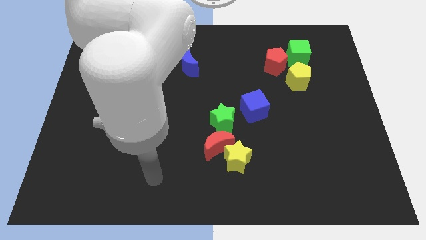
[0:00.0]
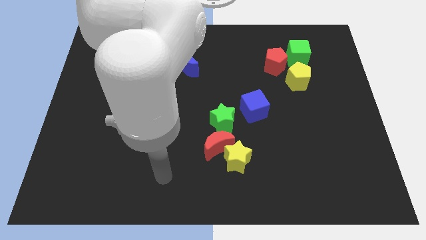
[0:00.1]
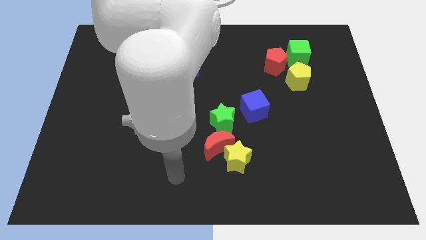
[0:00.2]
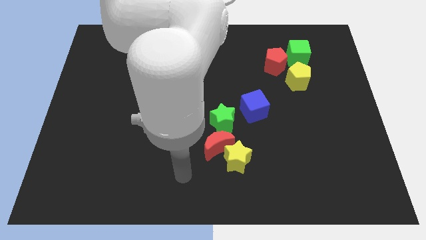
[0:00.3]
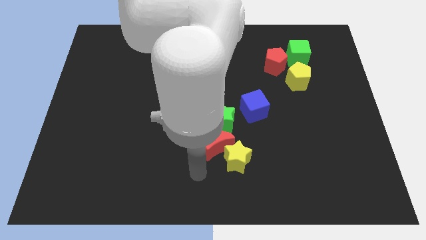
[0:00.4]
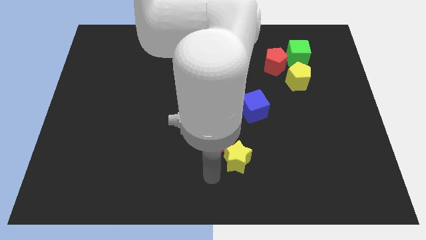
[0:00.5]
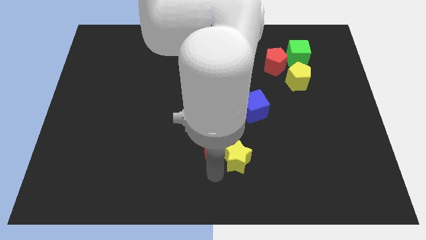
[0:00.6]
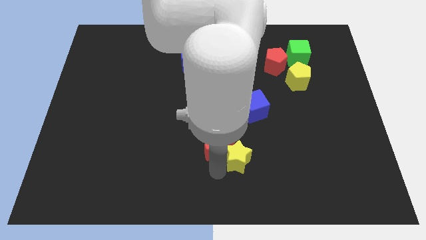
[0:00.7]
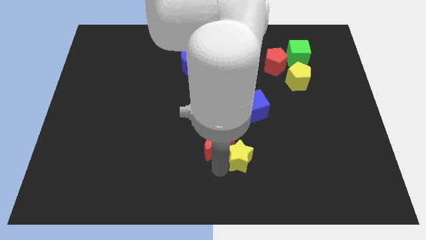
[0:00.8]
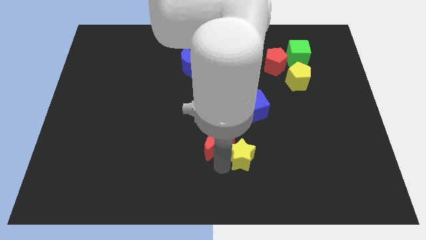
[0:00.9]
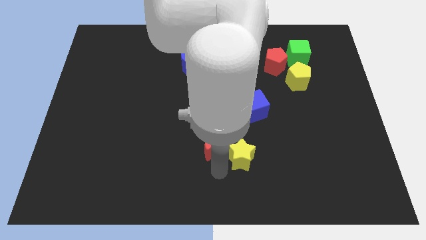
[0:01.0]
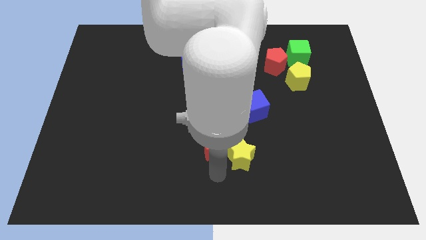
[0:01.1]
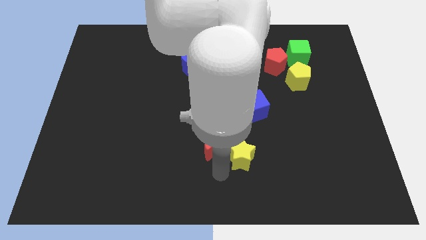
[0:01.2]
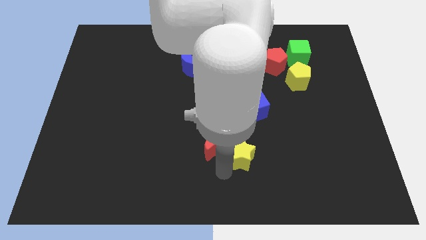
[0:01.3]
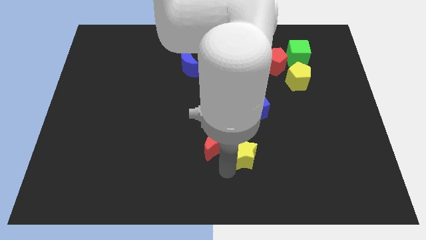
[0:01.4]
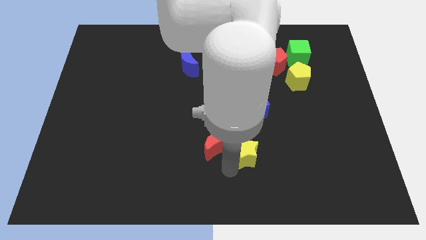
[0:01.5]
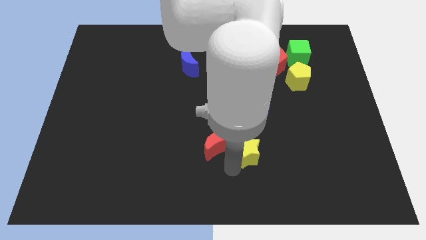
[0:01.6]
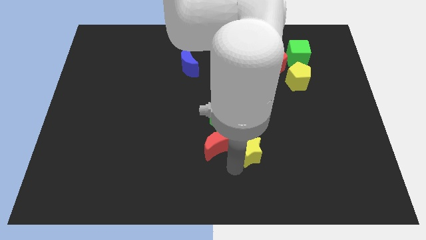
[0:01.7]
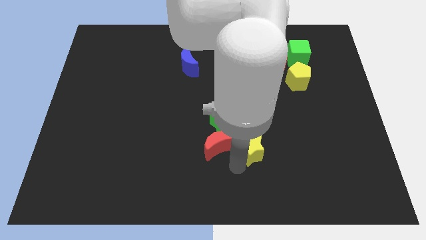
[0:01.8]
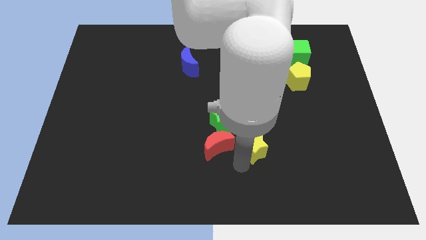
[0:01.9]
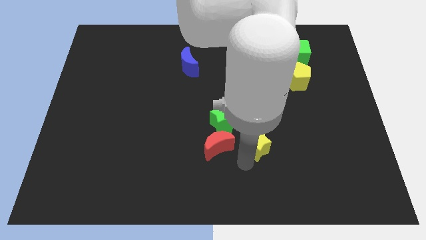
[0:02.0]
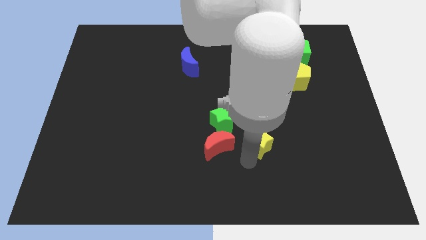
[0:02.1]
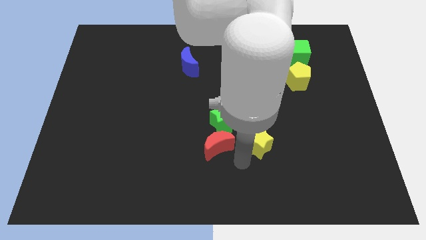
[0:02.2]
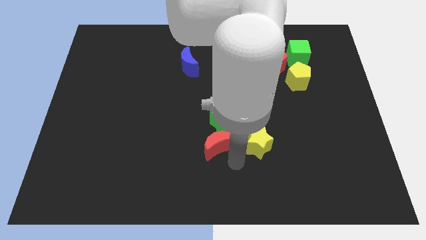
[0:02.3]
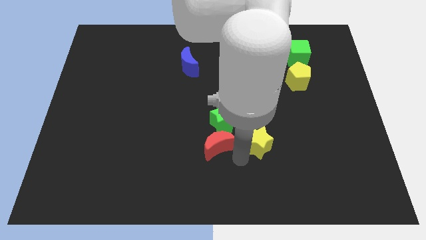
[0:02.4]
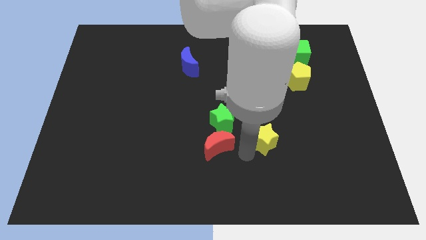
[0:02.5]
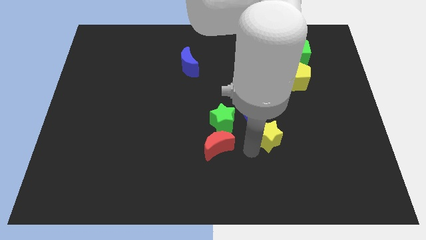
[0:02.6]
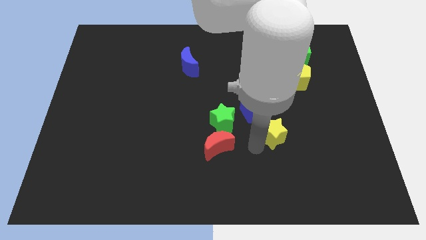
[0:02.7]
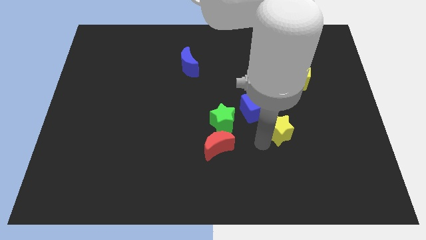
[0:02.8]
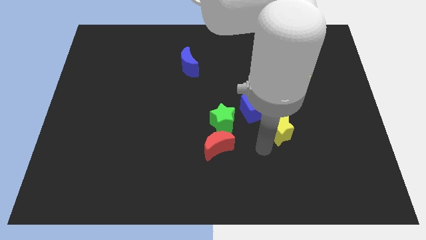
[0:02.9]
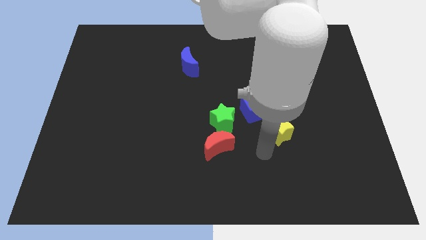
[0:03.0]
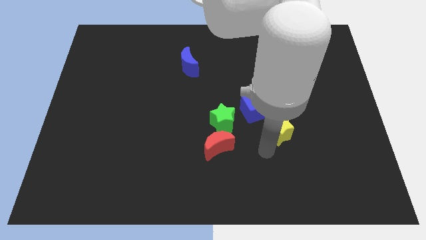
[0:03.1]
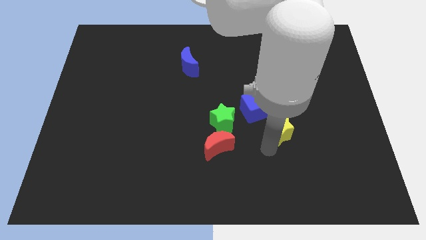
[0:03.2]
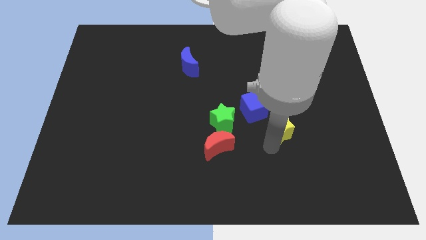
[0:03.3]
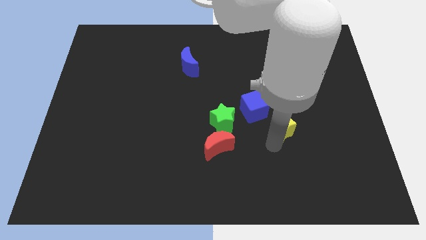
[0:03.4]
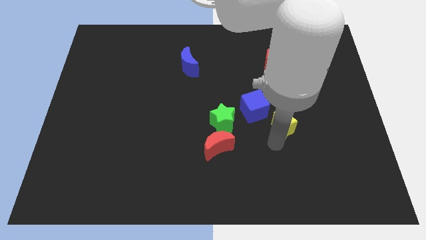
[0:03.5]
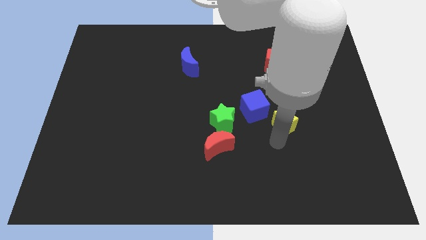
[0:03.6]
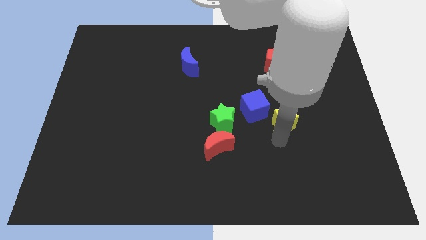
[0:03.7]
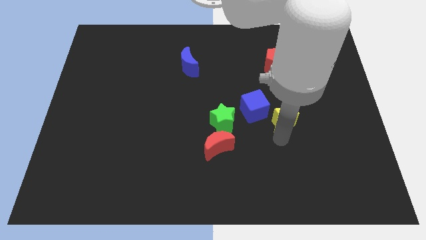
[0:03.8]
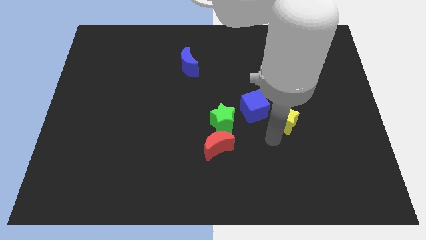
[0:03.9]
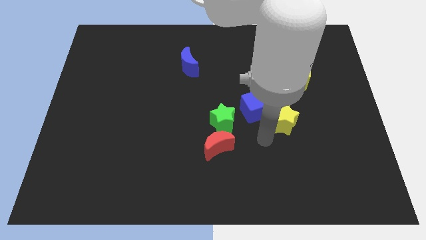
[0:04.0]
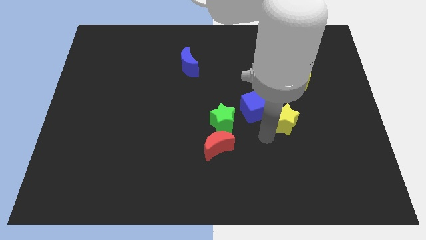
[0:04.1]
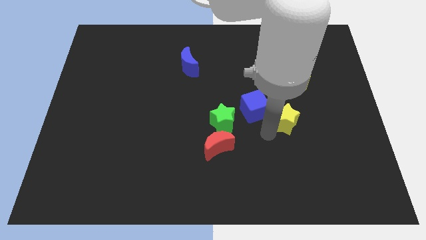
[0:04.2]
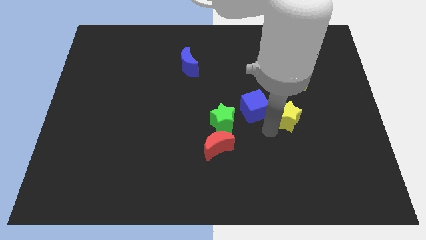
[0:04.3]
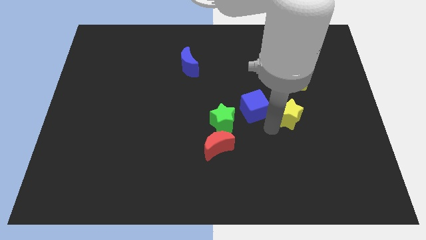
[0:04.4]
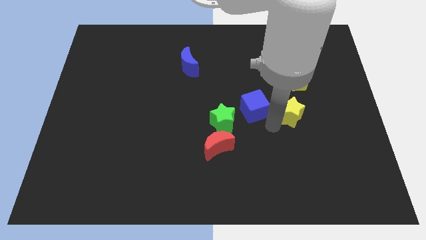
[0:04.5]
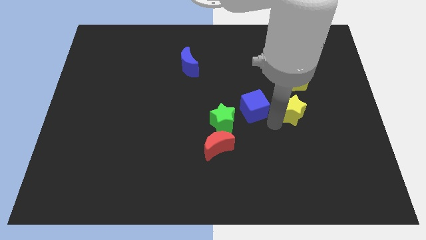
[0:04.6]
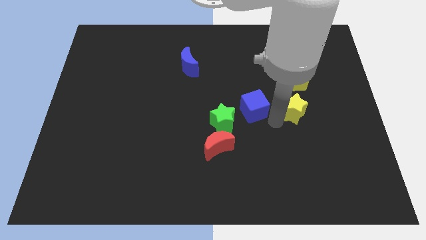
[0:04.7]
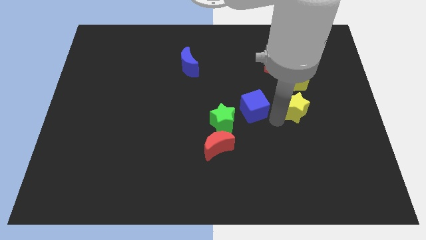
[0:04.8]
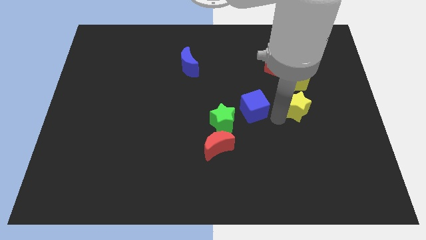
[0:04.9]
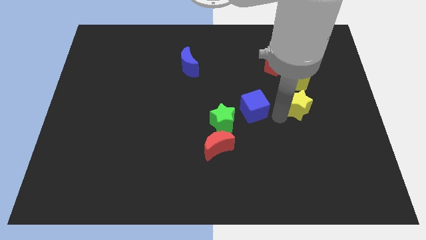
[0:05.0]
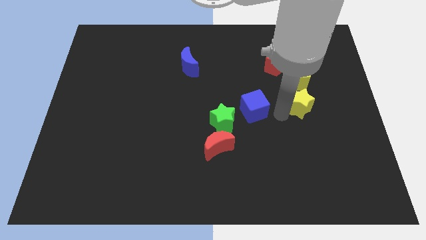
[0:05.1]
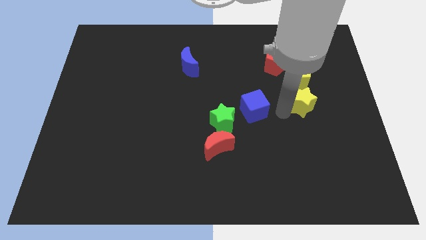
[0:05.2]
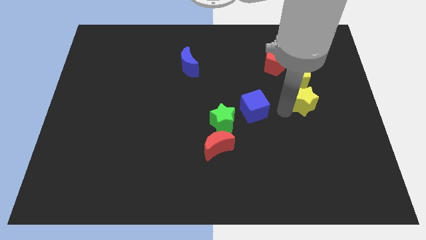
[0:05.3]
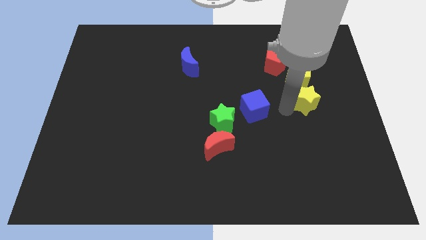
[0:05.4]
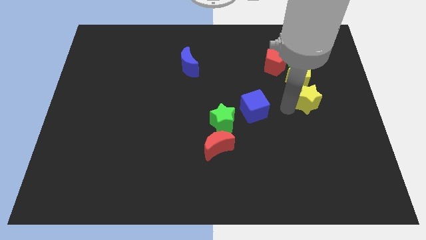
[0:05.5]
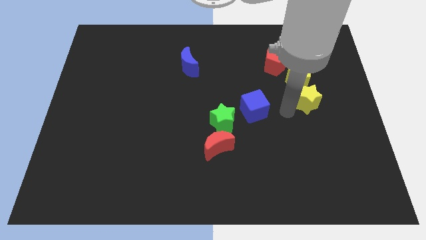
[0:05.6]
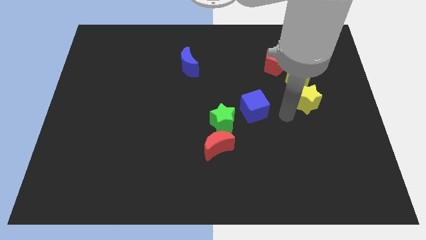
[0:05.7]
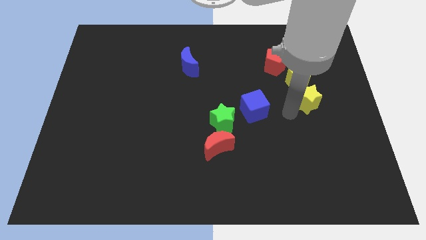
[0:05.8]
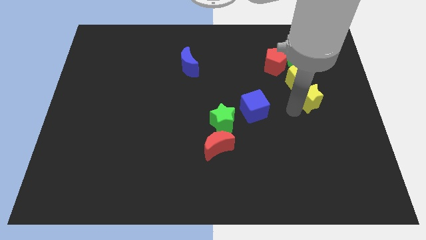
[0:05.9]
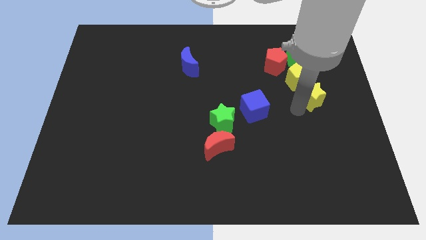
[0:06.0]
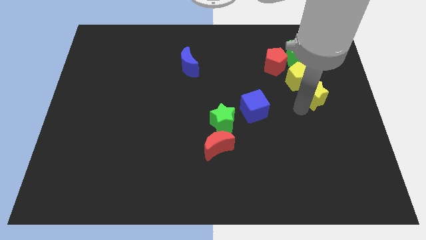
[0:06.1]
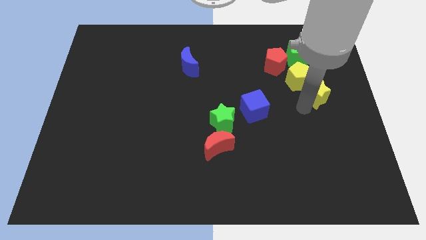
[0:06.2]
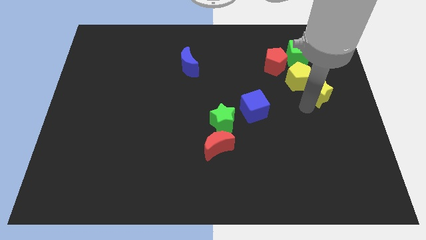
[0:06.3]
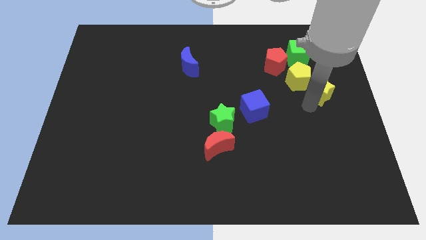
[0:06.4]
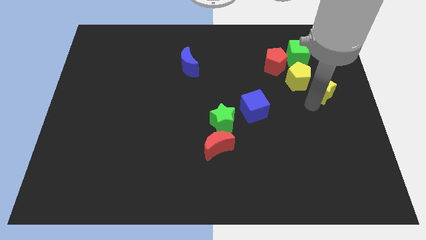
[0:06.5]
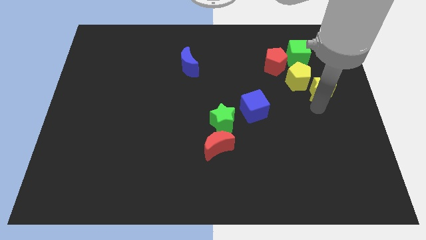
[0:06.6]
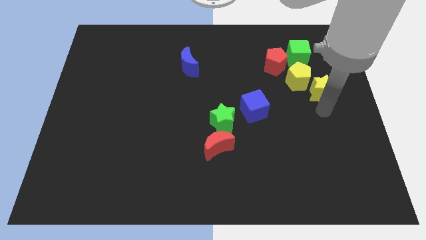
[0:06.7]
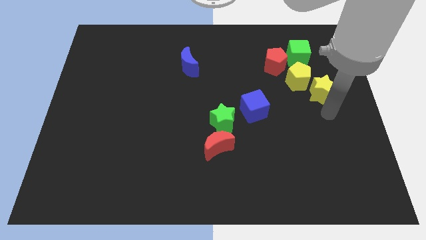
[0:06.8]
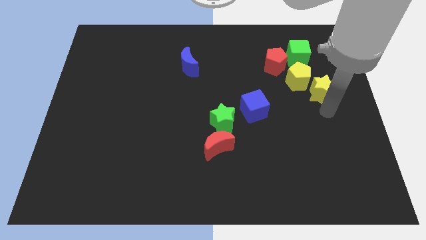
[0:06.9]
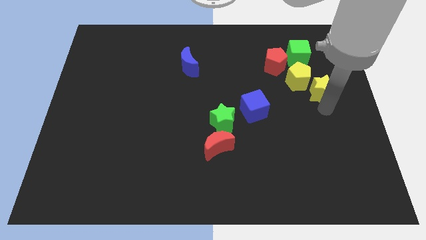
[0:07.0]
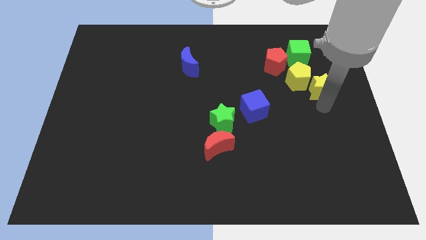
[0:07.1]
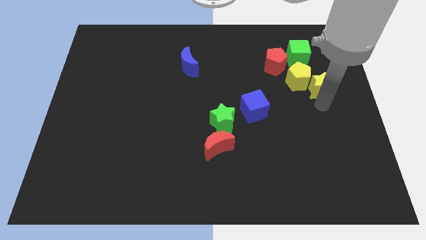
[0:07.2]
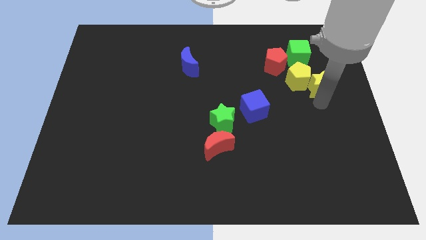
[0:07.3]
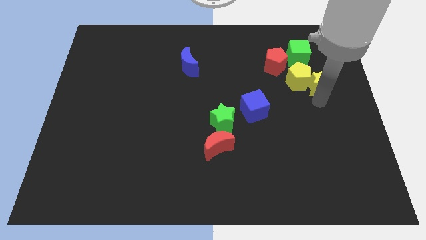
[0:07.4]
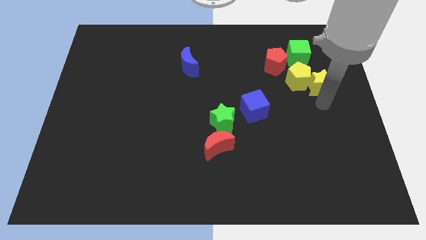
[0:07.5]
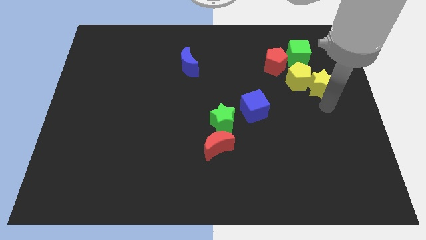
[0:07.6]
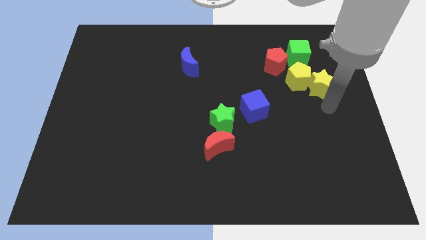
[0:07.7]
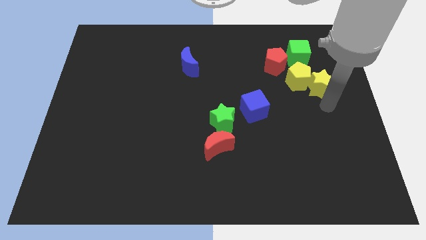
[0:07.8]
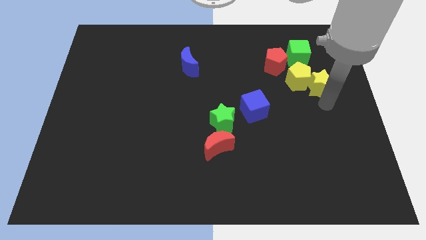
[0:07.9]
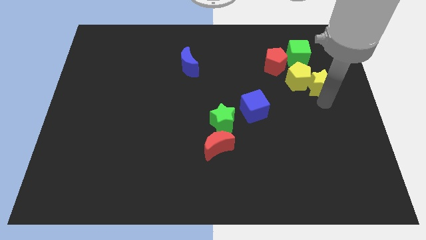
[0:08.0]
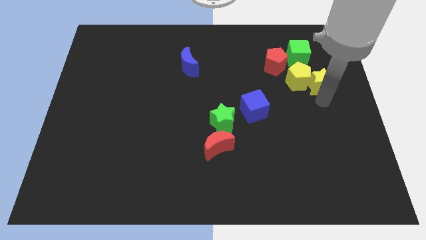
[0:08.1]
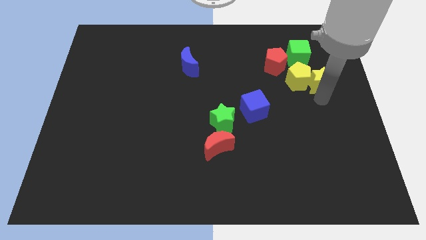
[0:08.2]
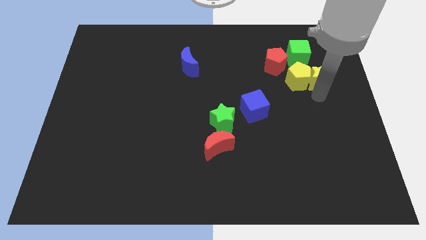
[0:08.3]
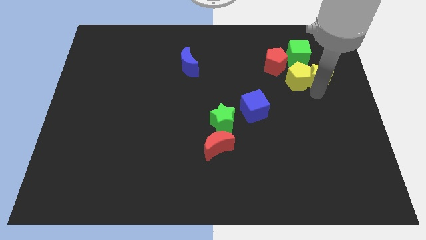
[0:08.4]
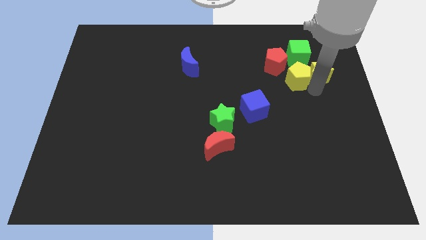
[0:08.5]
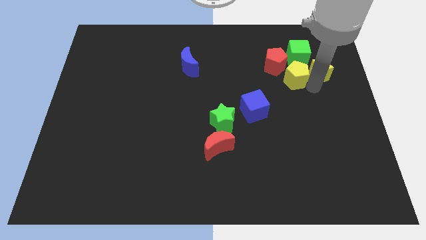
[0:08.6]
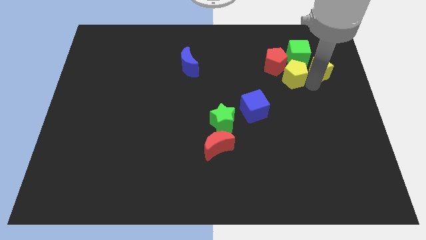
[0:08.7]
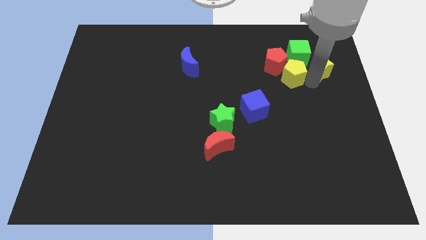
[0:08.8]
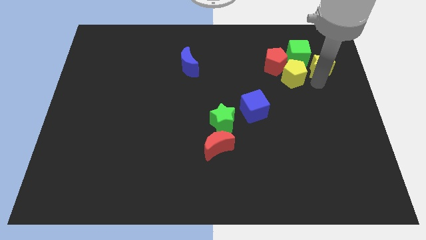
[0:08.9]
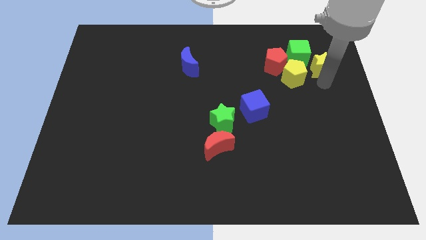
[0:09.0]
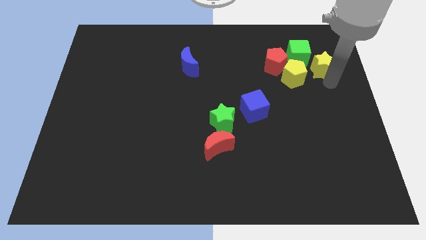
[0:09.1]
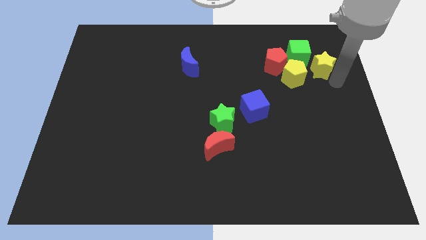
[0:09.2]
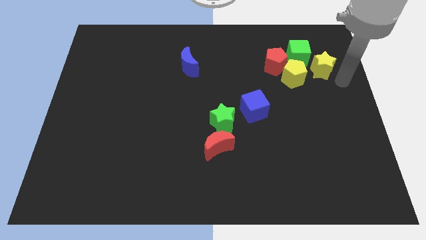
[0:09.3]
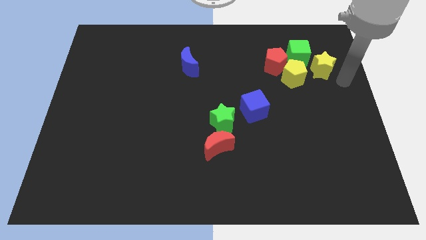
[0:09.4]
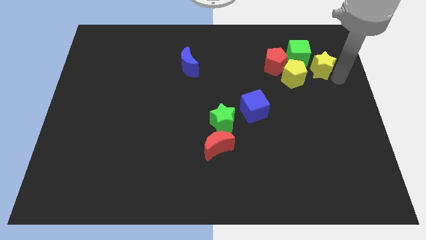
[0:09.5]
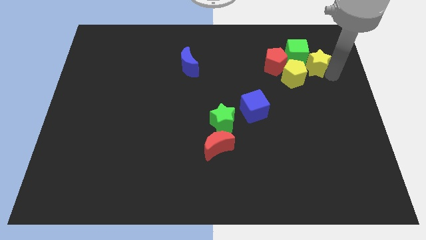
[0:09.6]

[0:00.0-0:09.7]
push the yellow star close to the green cube
